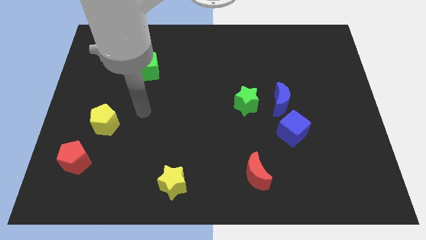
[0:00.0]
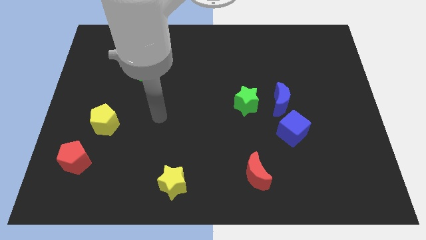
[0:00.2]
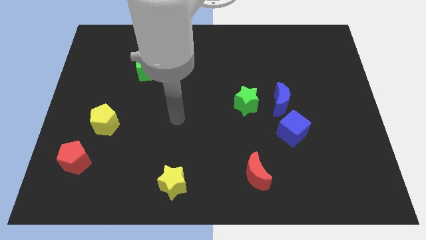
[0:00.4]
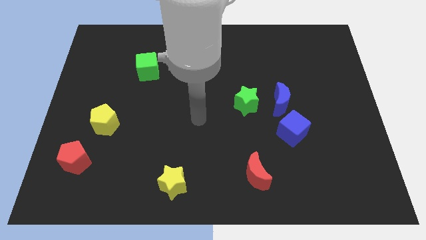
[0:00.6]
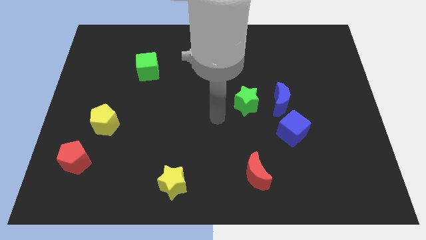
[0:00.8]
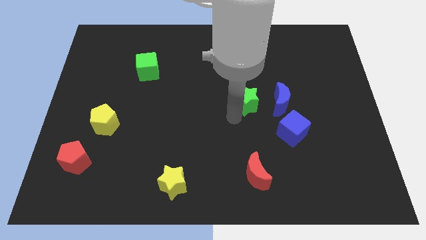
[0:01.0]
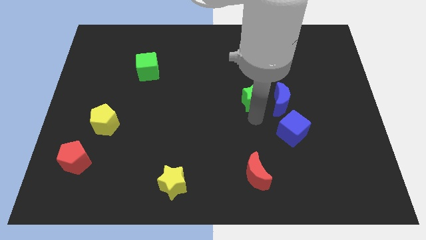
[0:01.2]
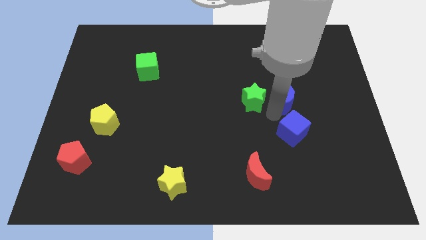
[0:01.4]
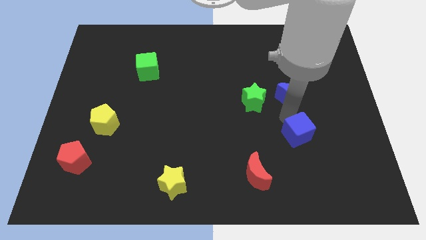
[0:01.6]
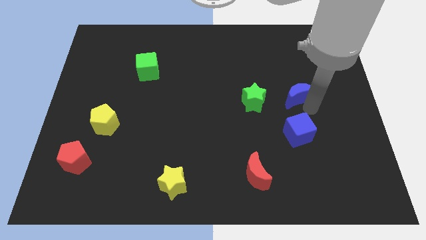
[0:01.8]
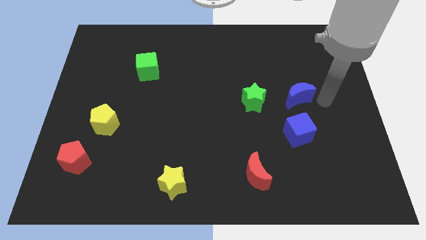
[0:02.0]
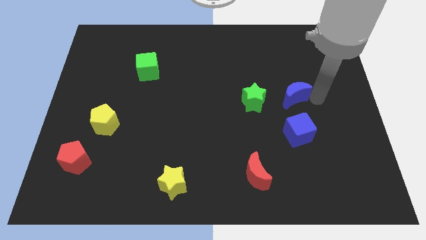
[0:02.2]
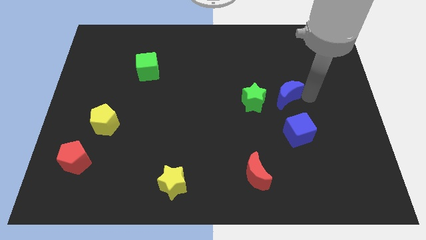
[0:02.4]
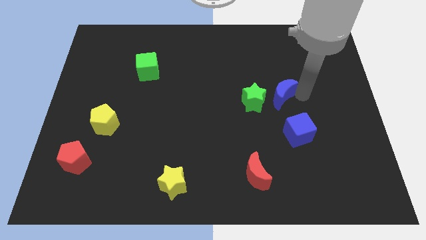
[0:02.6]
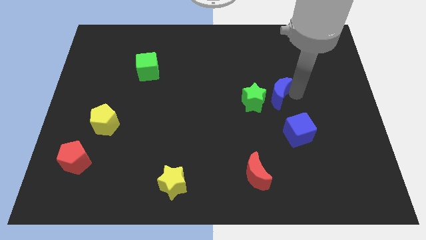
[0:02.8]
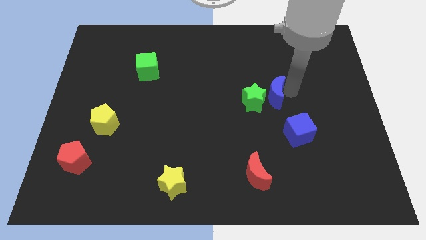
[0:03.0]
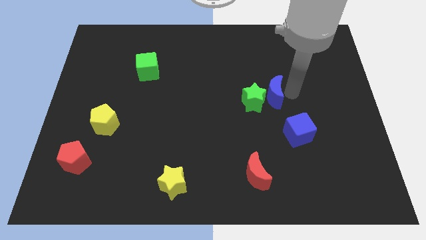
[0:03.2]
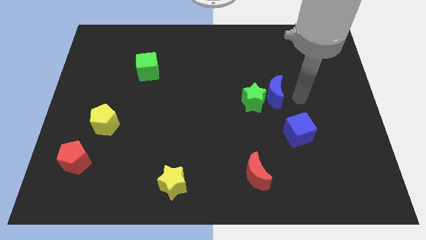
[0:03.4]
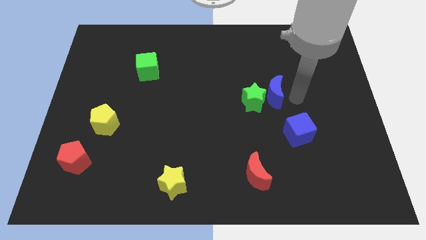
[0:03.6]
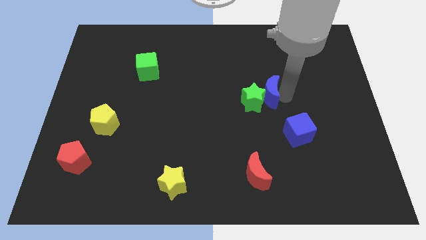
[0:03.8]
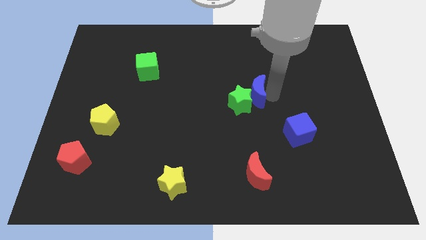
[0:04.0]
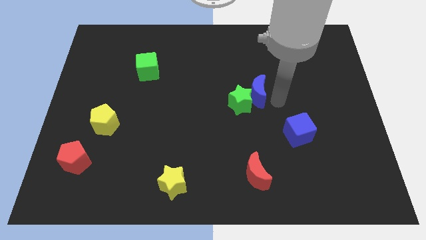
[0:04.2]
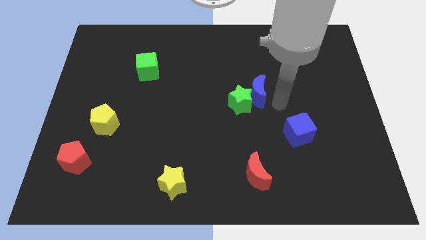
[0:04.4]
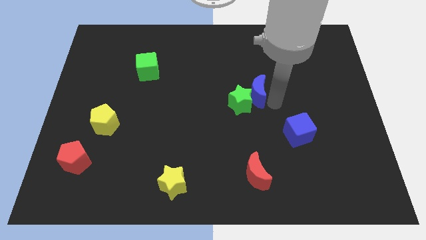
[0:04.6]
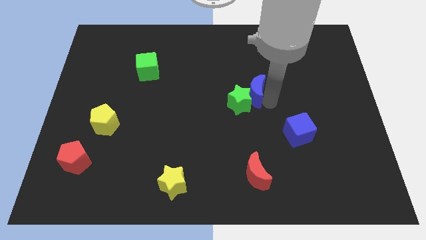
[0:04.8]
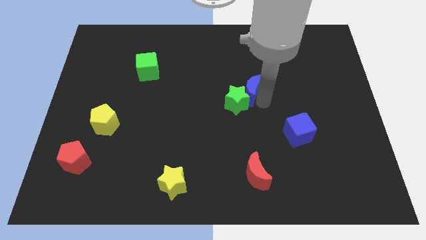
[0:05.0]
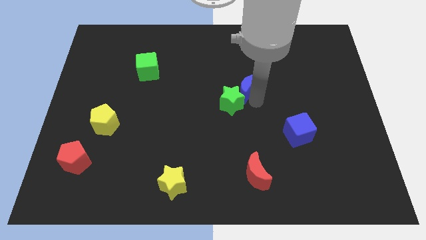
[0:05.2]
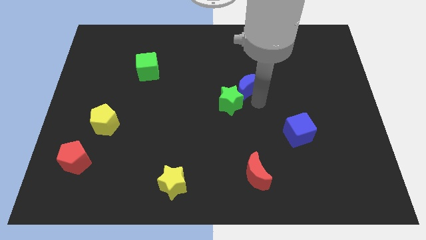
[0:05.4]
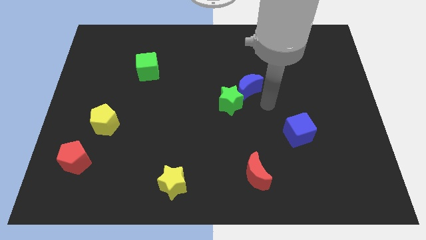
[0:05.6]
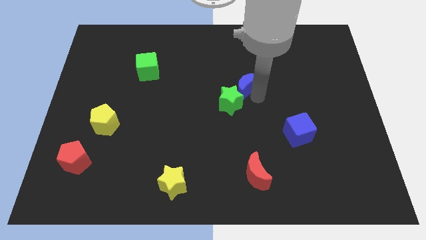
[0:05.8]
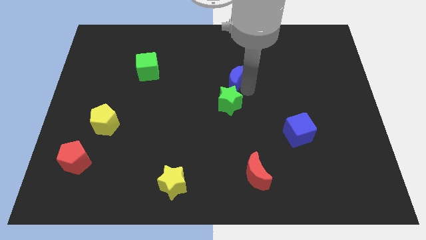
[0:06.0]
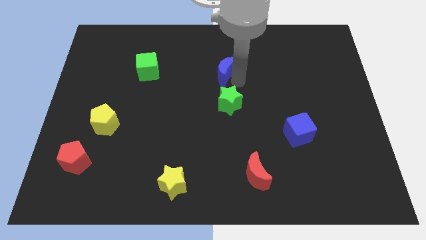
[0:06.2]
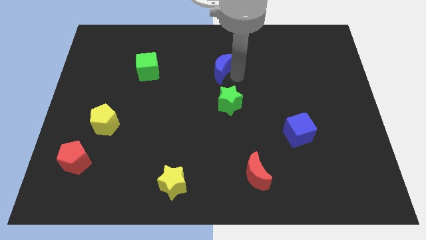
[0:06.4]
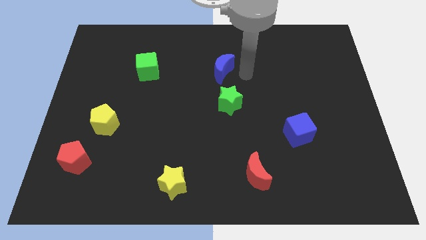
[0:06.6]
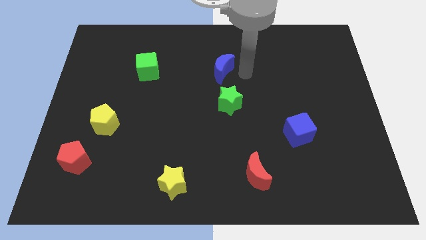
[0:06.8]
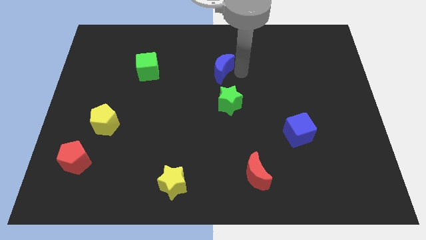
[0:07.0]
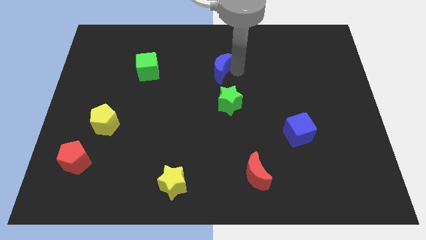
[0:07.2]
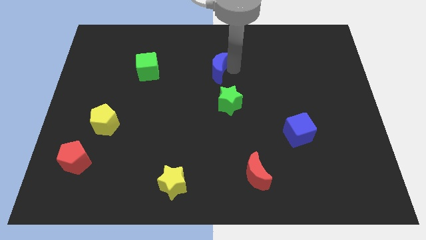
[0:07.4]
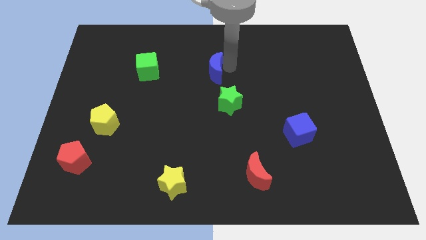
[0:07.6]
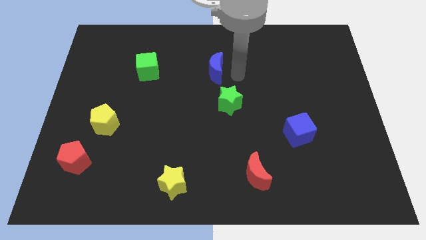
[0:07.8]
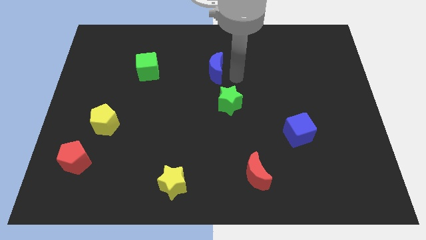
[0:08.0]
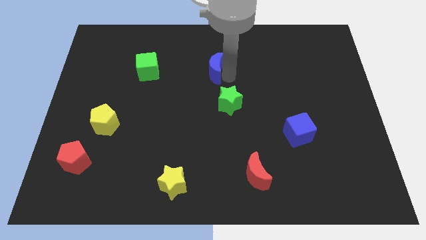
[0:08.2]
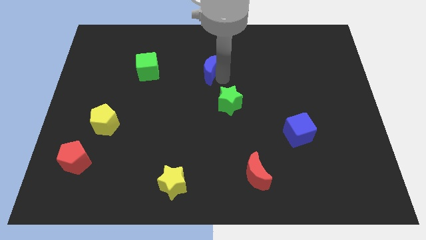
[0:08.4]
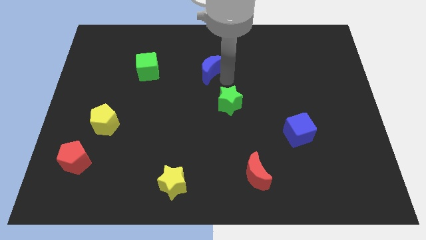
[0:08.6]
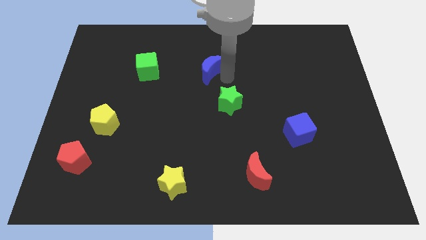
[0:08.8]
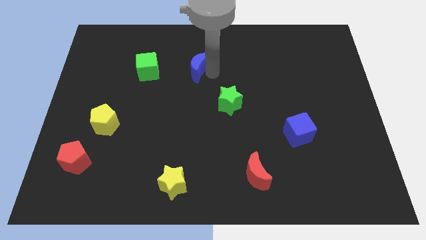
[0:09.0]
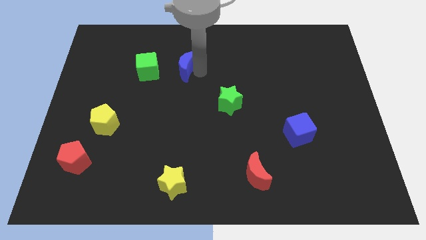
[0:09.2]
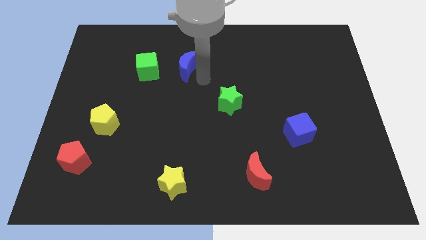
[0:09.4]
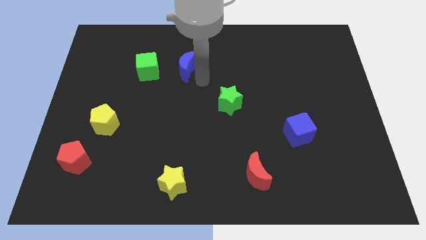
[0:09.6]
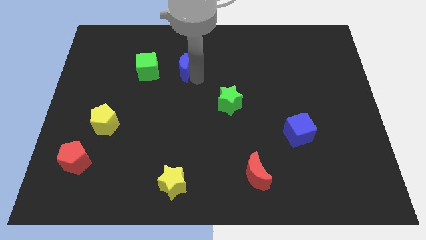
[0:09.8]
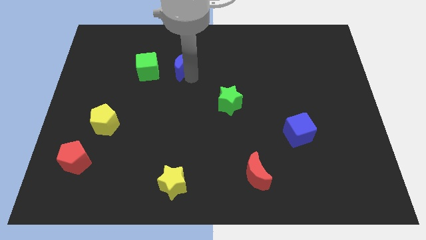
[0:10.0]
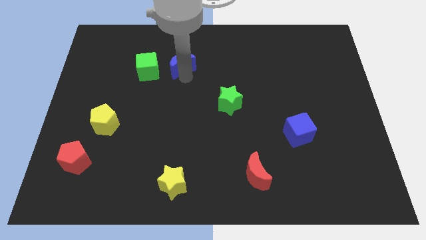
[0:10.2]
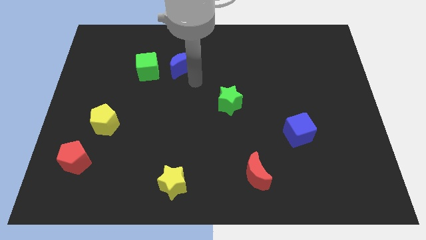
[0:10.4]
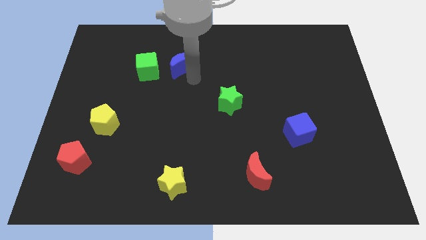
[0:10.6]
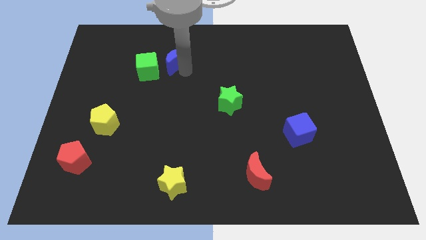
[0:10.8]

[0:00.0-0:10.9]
move the blue moon to the top right of the green cube

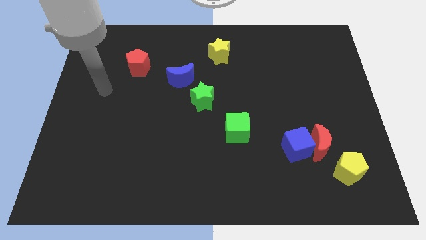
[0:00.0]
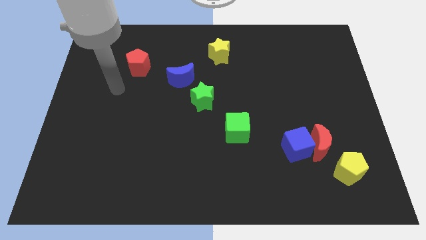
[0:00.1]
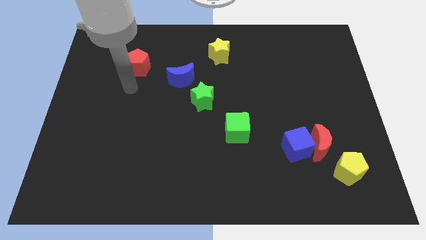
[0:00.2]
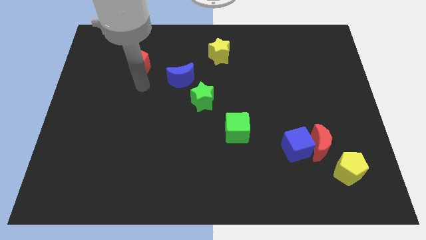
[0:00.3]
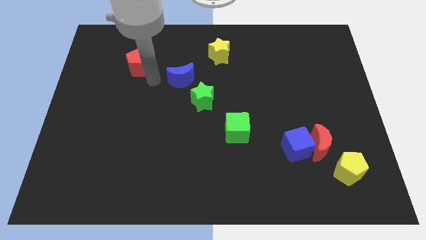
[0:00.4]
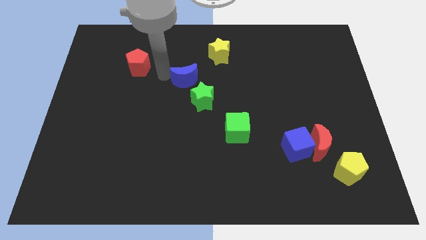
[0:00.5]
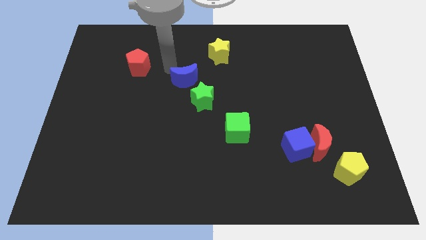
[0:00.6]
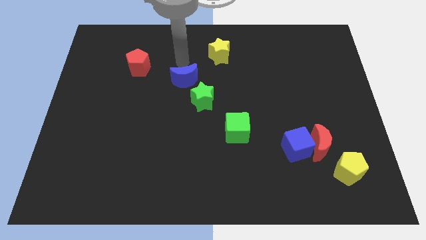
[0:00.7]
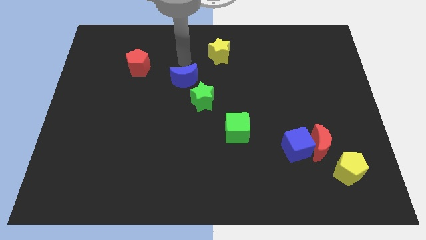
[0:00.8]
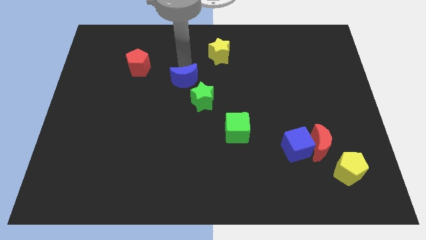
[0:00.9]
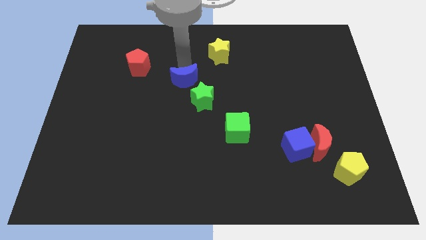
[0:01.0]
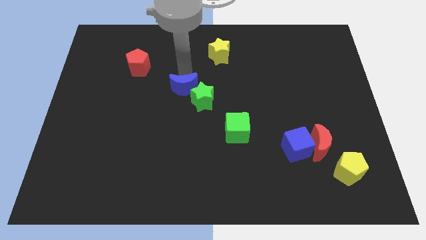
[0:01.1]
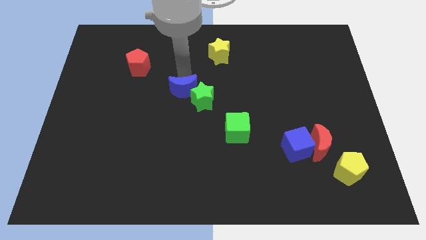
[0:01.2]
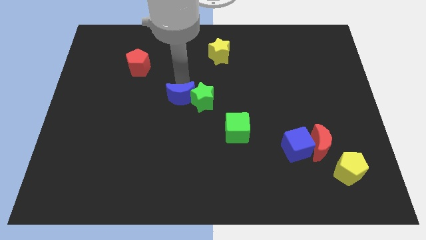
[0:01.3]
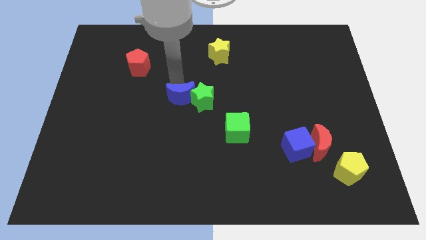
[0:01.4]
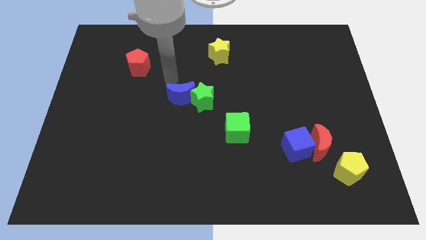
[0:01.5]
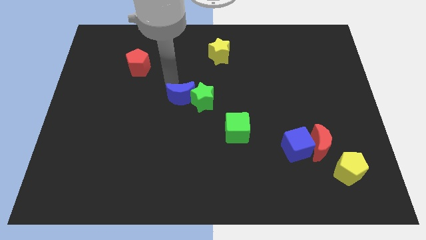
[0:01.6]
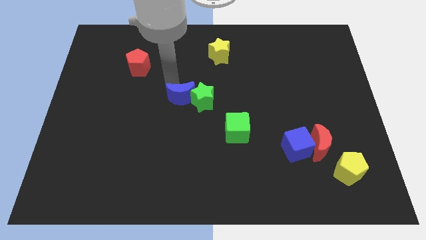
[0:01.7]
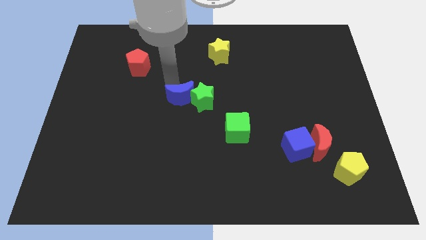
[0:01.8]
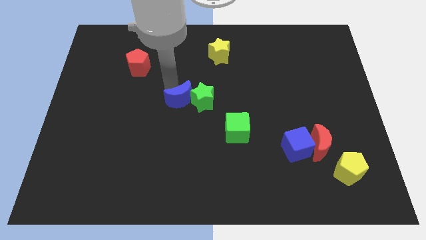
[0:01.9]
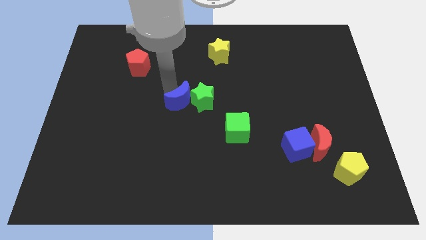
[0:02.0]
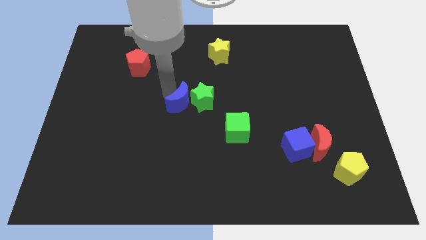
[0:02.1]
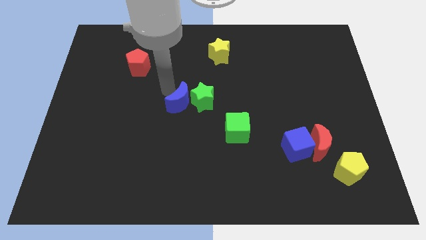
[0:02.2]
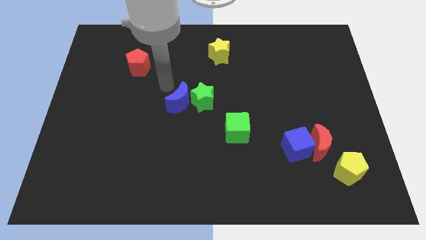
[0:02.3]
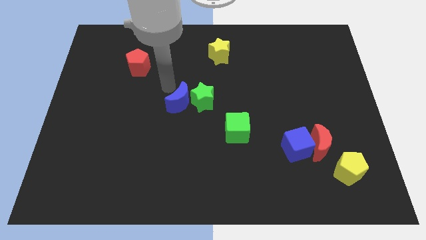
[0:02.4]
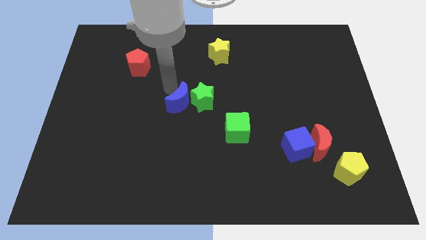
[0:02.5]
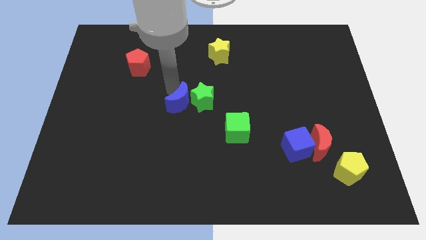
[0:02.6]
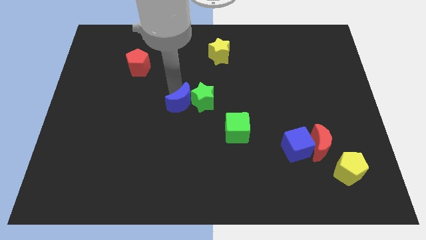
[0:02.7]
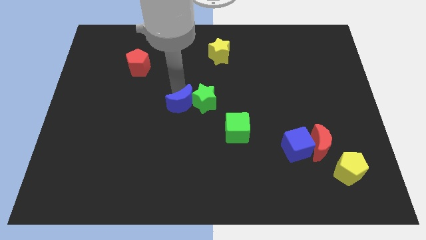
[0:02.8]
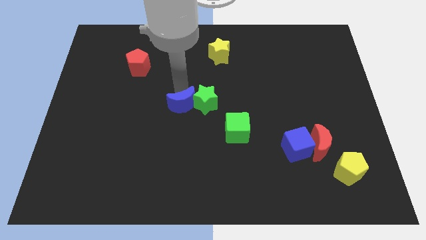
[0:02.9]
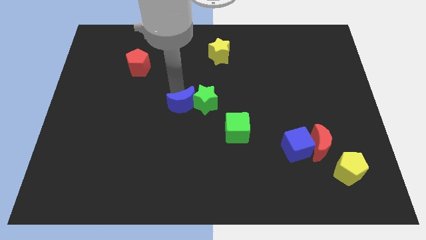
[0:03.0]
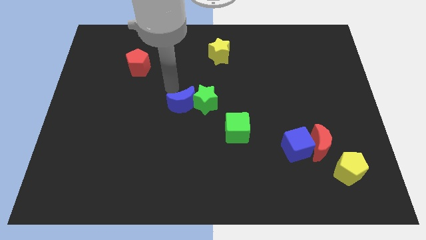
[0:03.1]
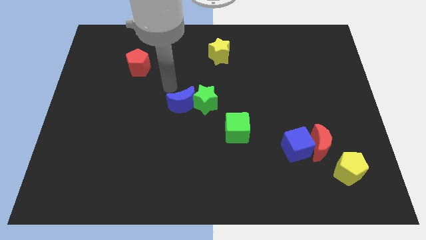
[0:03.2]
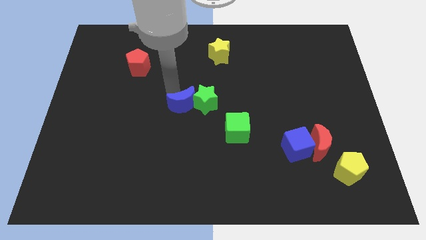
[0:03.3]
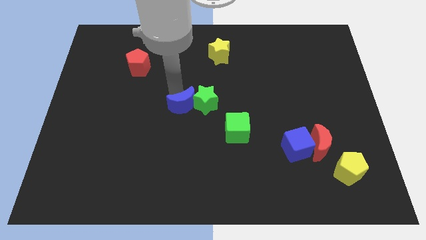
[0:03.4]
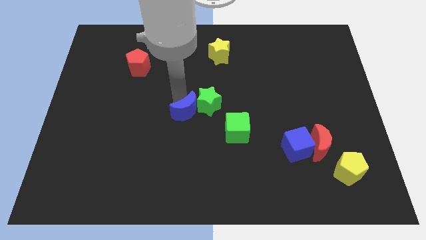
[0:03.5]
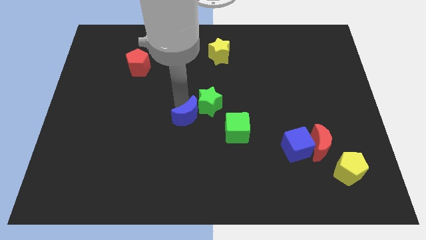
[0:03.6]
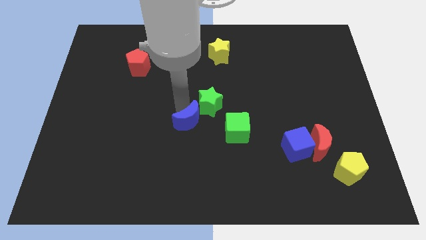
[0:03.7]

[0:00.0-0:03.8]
put the blue moon to the bottom side of the green star
